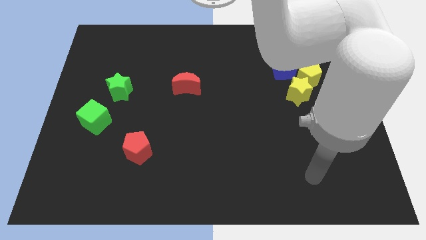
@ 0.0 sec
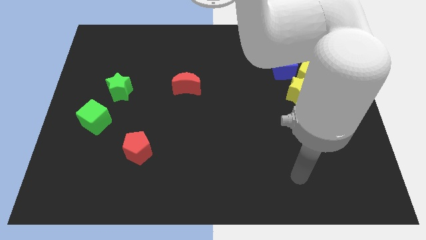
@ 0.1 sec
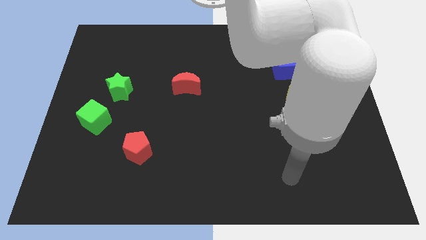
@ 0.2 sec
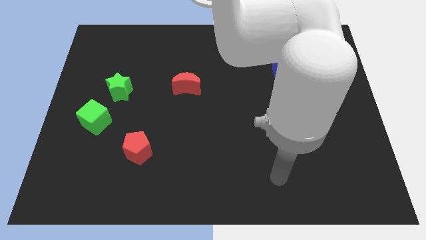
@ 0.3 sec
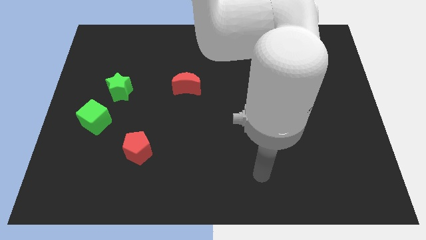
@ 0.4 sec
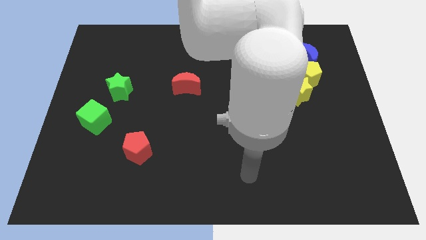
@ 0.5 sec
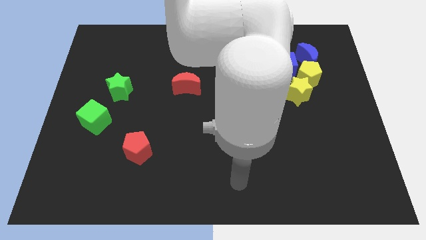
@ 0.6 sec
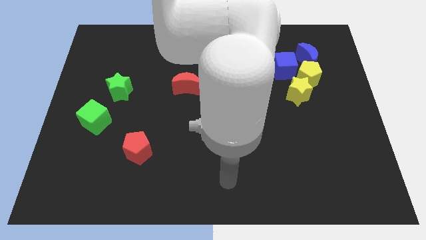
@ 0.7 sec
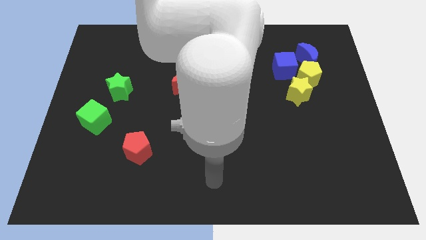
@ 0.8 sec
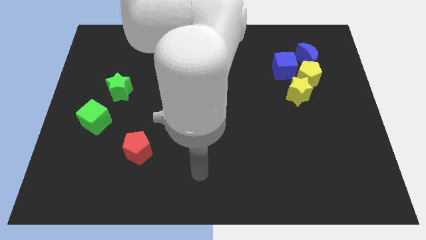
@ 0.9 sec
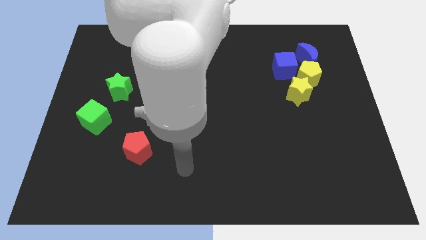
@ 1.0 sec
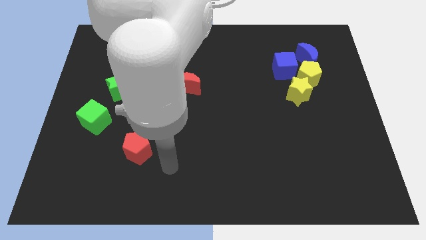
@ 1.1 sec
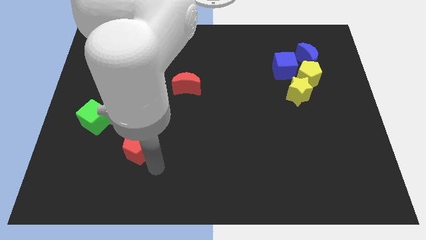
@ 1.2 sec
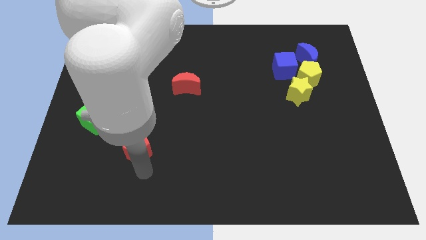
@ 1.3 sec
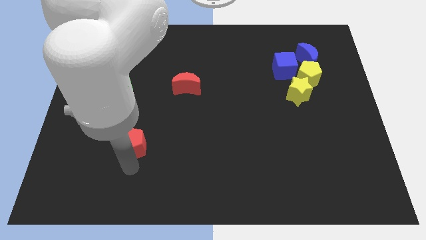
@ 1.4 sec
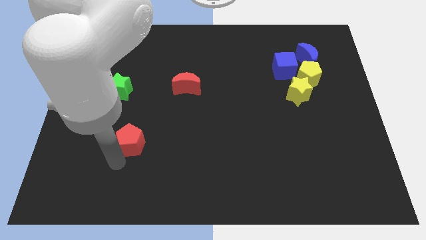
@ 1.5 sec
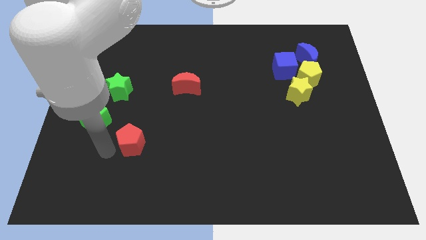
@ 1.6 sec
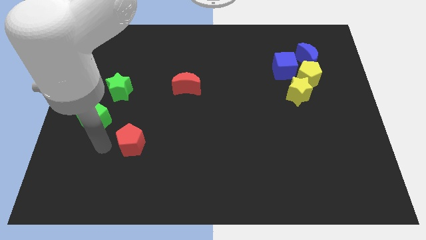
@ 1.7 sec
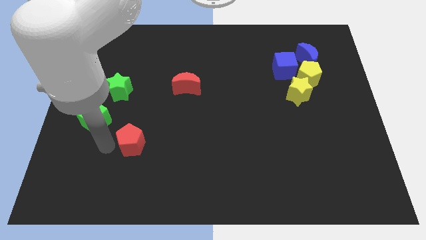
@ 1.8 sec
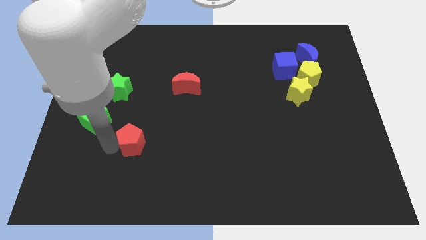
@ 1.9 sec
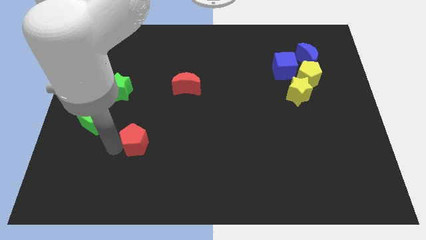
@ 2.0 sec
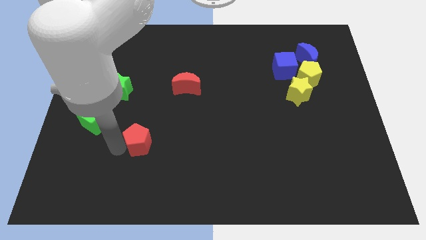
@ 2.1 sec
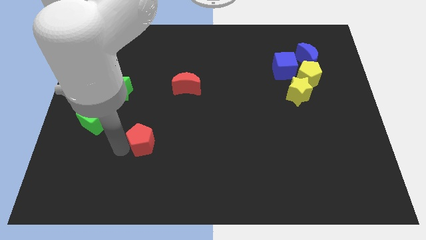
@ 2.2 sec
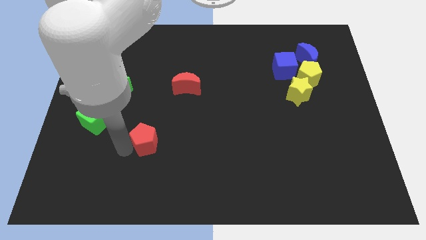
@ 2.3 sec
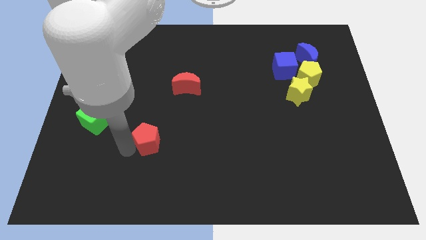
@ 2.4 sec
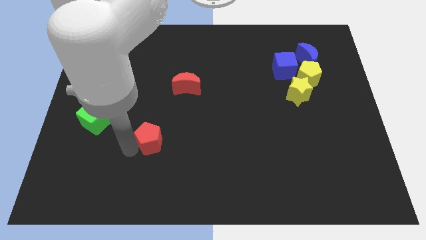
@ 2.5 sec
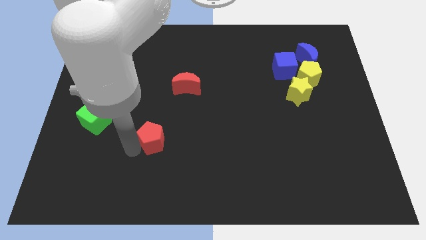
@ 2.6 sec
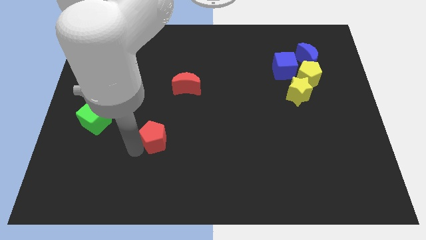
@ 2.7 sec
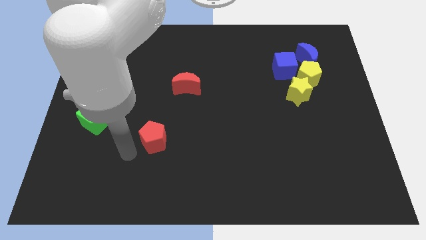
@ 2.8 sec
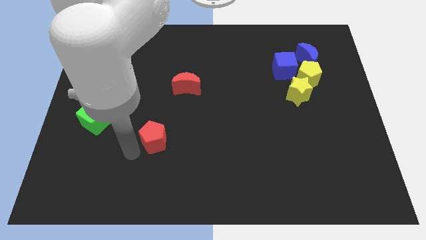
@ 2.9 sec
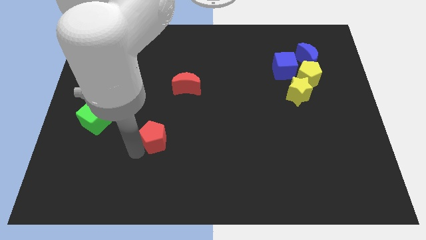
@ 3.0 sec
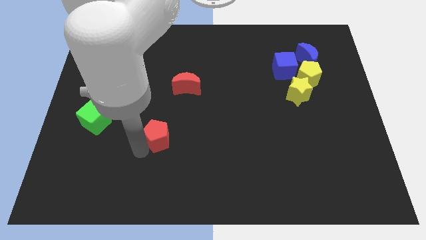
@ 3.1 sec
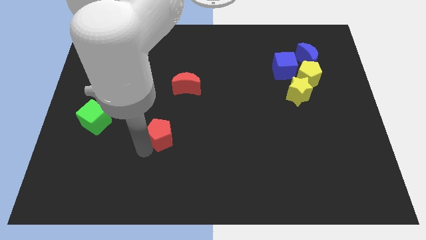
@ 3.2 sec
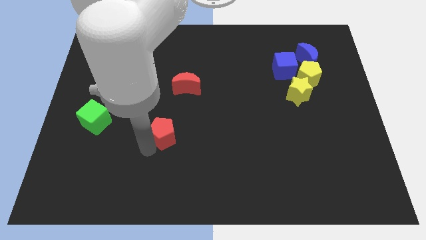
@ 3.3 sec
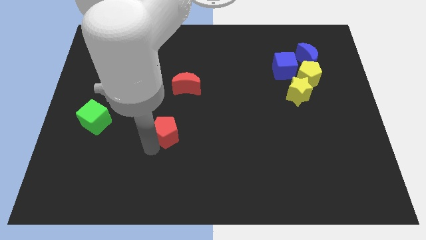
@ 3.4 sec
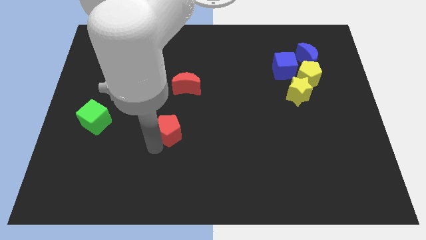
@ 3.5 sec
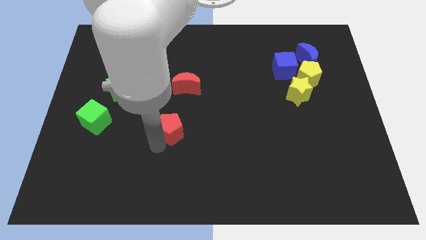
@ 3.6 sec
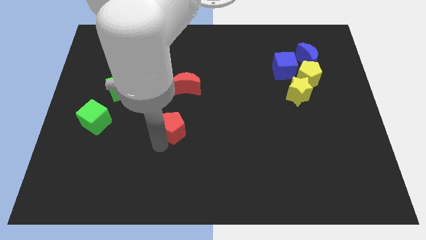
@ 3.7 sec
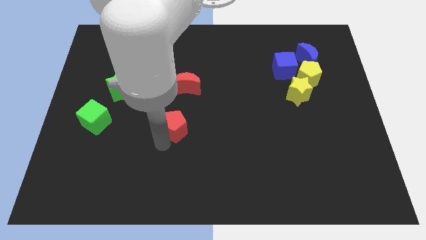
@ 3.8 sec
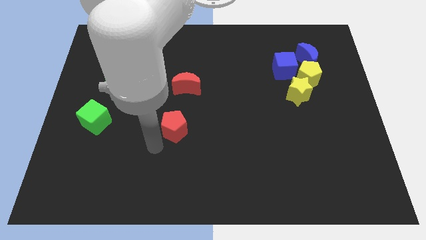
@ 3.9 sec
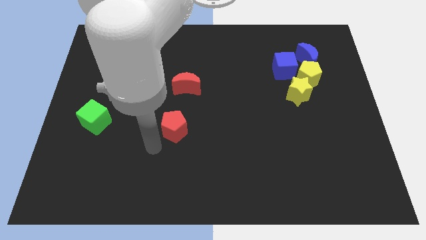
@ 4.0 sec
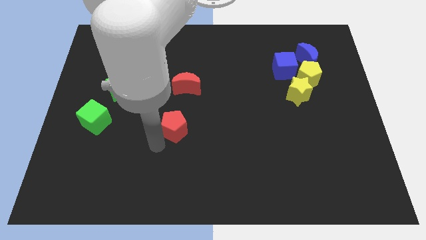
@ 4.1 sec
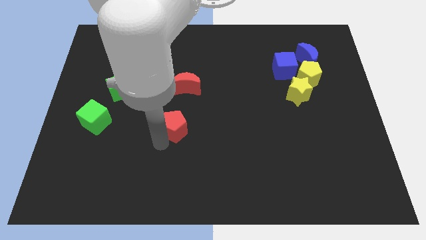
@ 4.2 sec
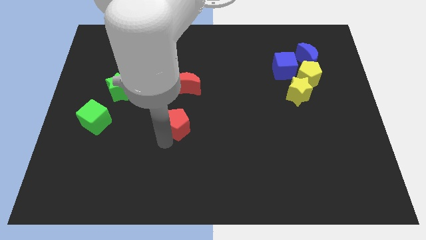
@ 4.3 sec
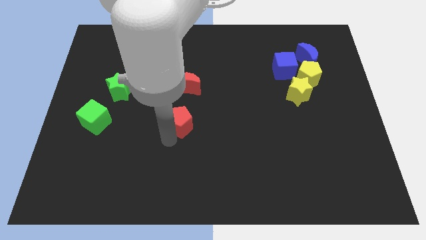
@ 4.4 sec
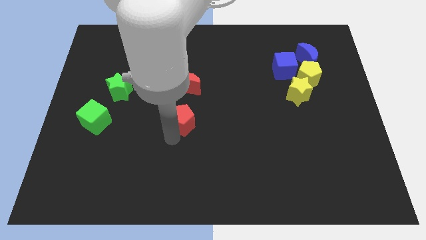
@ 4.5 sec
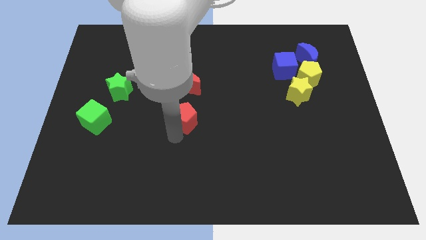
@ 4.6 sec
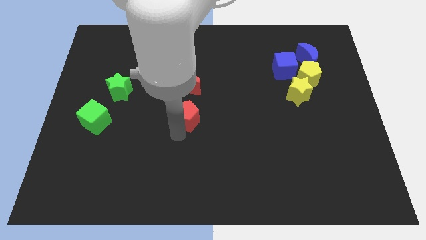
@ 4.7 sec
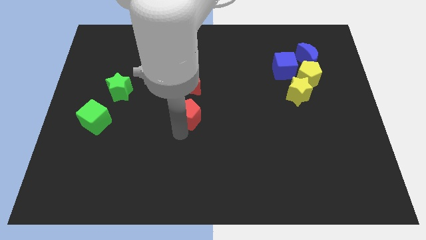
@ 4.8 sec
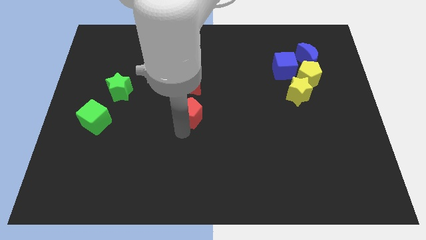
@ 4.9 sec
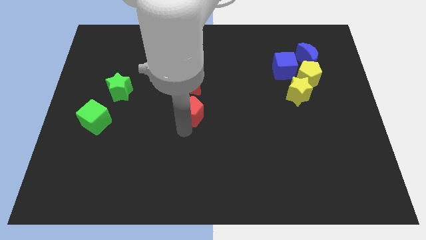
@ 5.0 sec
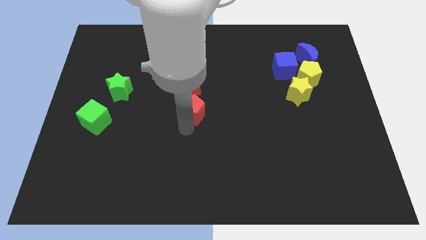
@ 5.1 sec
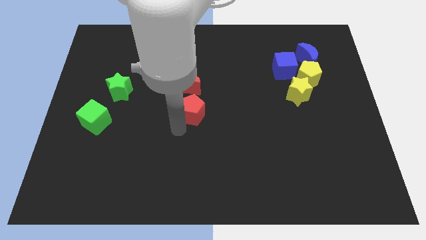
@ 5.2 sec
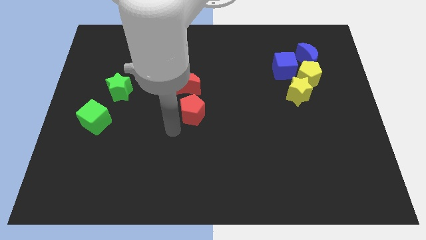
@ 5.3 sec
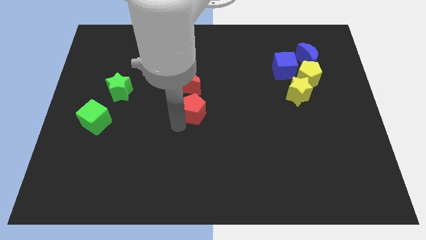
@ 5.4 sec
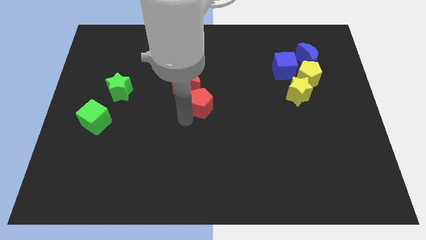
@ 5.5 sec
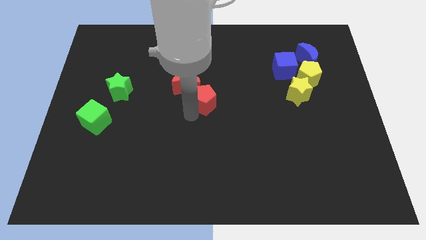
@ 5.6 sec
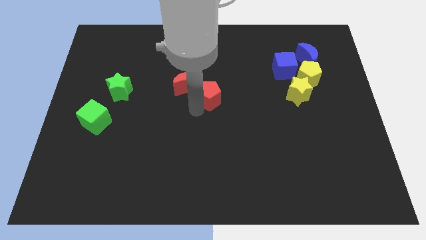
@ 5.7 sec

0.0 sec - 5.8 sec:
push the red pentagon upwards and then right

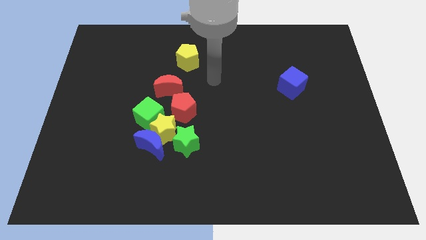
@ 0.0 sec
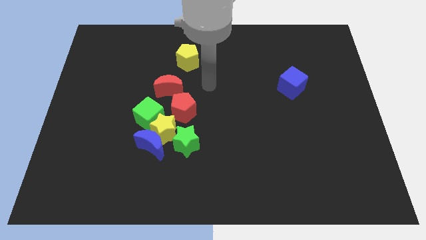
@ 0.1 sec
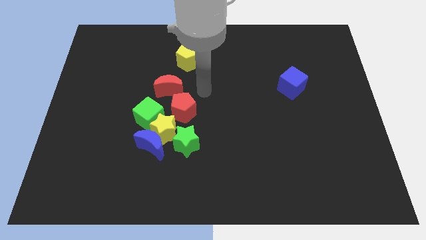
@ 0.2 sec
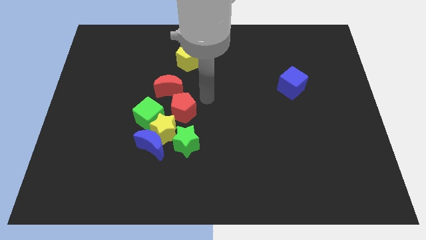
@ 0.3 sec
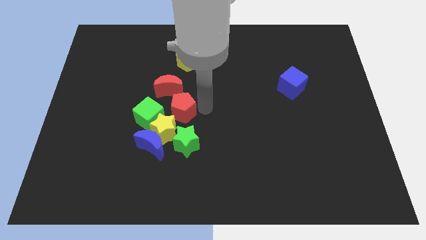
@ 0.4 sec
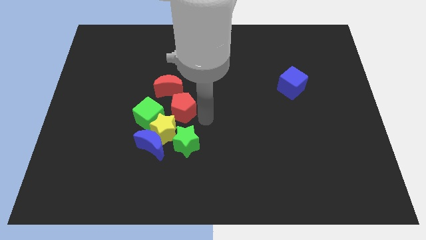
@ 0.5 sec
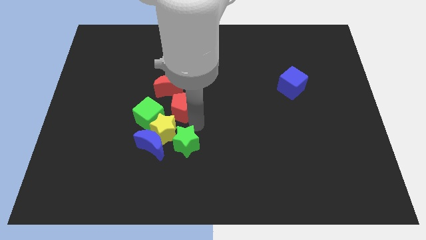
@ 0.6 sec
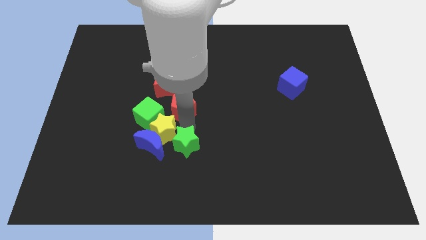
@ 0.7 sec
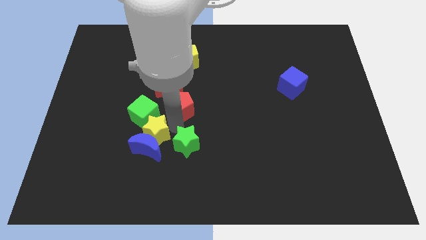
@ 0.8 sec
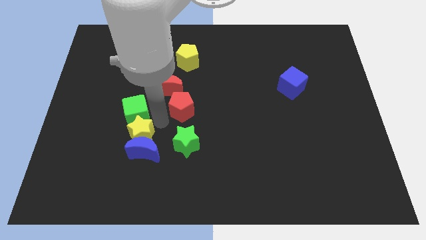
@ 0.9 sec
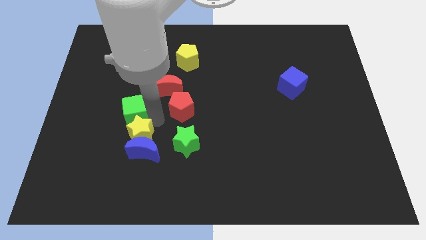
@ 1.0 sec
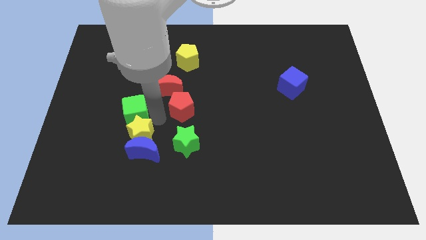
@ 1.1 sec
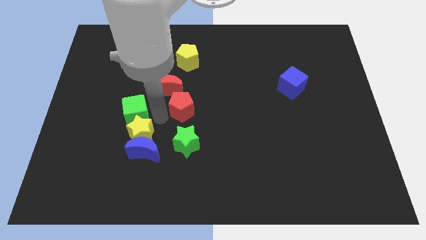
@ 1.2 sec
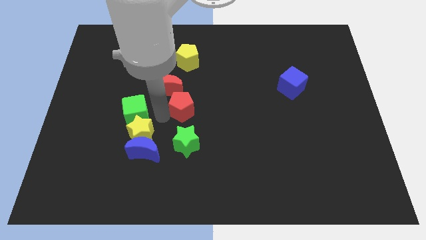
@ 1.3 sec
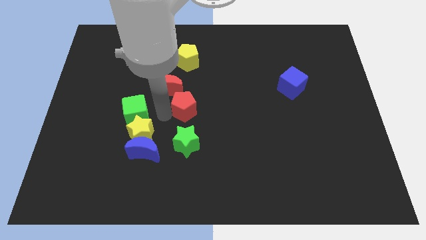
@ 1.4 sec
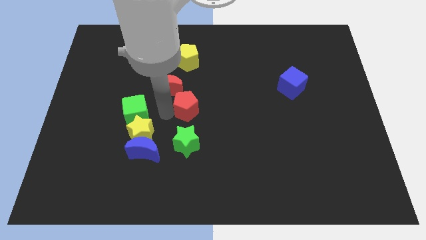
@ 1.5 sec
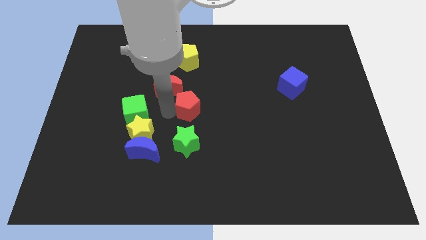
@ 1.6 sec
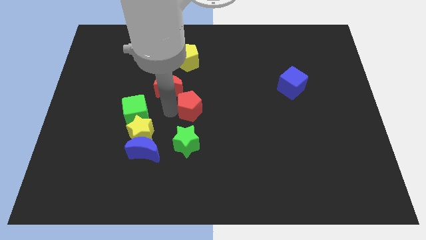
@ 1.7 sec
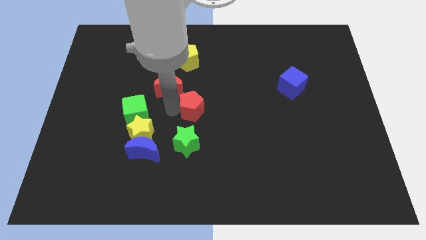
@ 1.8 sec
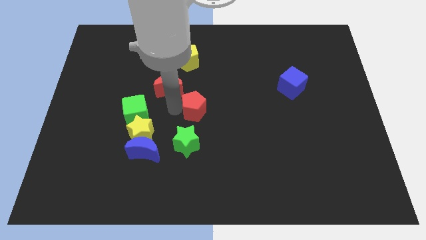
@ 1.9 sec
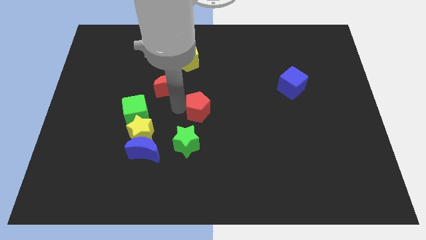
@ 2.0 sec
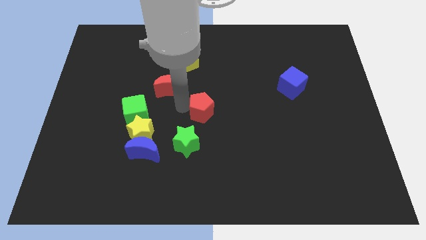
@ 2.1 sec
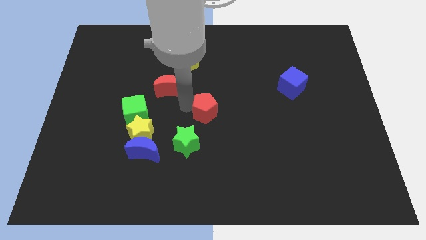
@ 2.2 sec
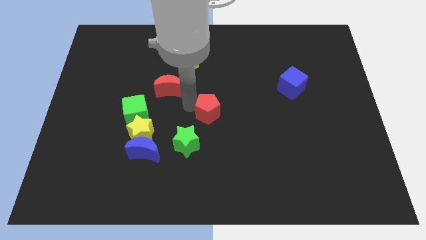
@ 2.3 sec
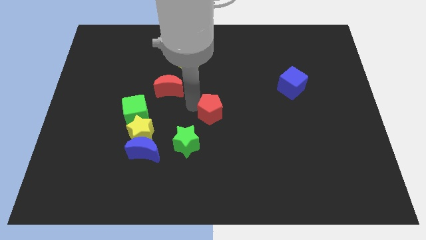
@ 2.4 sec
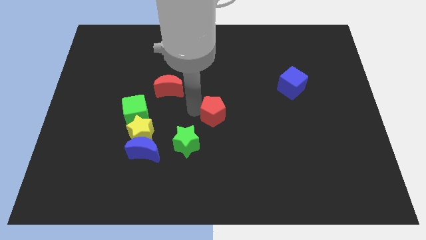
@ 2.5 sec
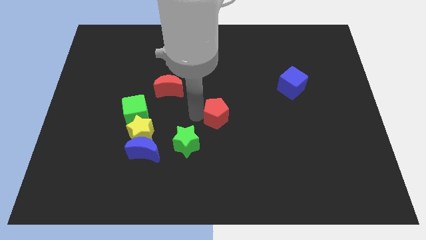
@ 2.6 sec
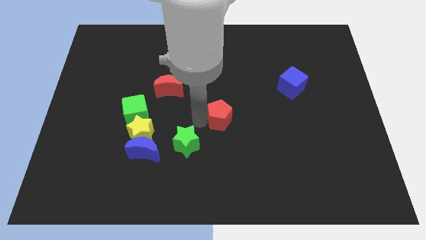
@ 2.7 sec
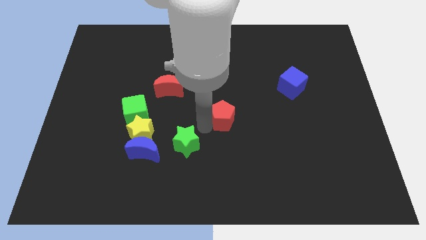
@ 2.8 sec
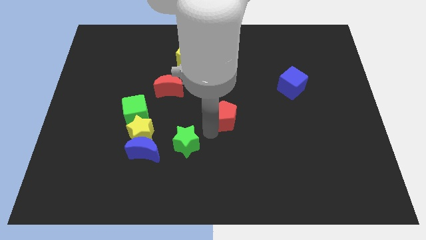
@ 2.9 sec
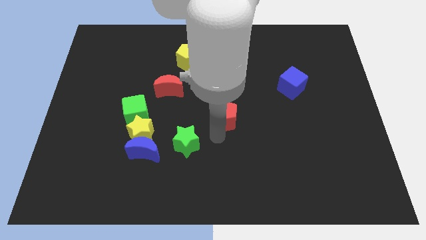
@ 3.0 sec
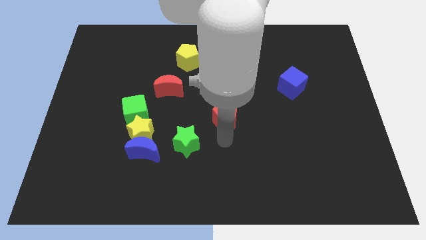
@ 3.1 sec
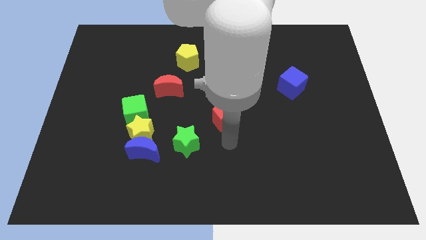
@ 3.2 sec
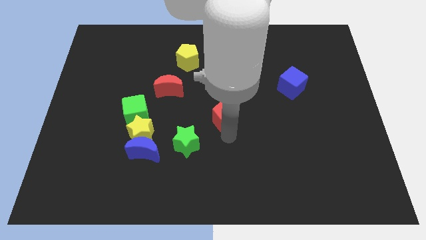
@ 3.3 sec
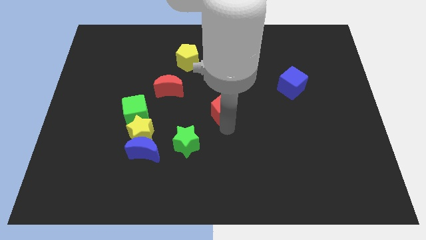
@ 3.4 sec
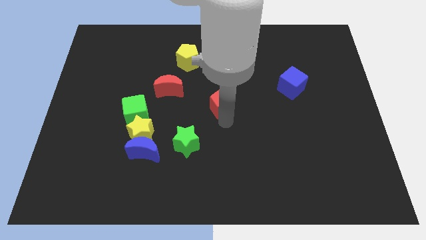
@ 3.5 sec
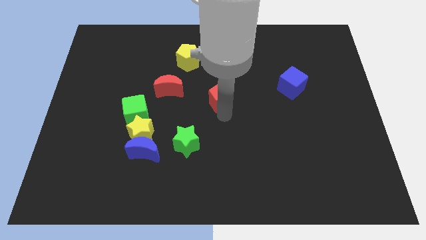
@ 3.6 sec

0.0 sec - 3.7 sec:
push the red pentagon a little bit upwards and to the right
